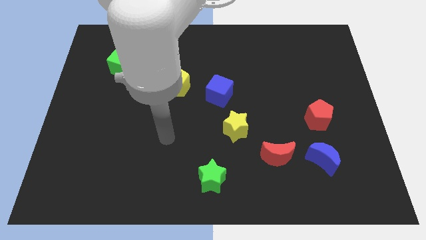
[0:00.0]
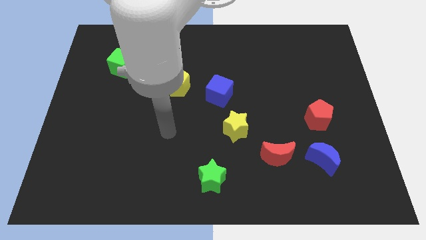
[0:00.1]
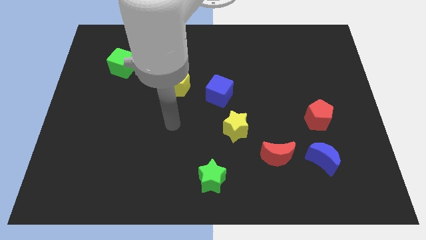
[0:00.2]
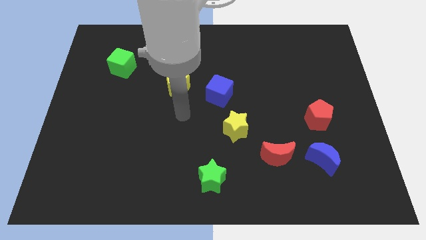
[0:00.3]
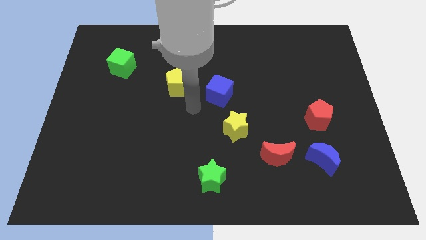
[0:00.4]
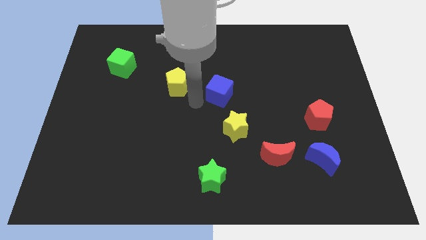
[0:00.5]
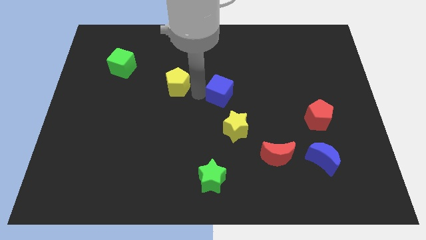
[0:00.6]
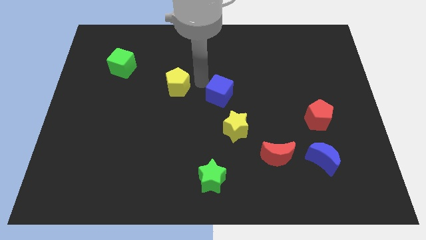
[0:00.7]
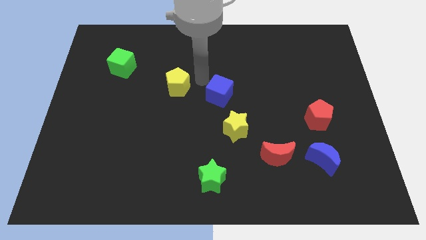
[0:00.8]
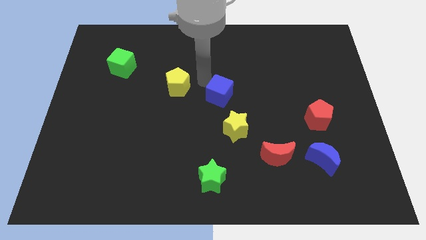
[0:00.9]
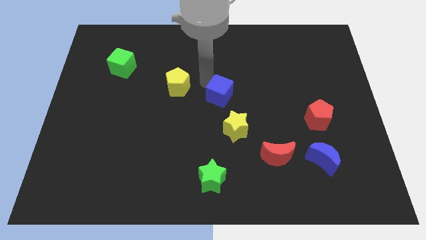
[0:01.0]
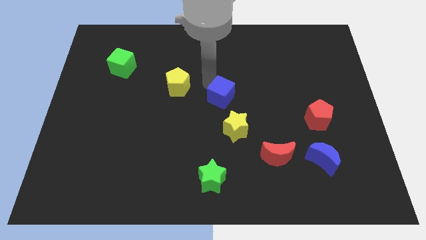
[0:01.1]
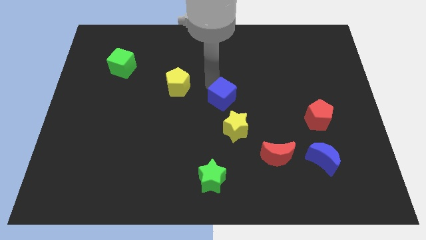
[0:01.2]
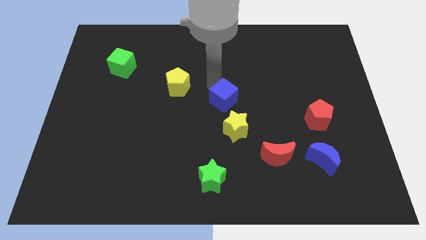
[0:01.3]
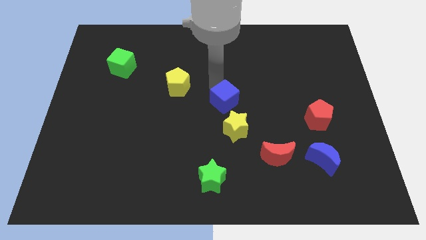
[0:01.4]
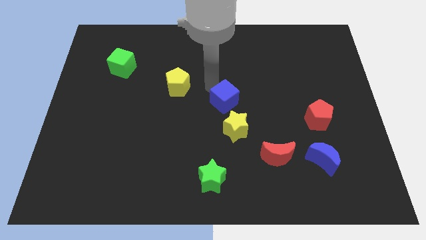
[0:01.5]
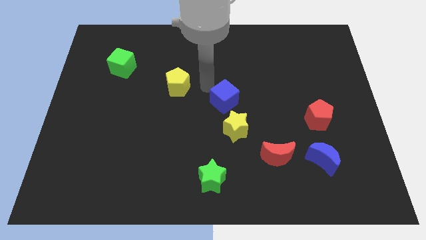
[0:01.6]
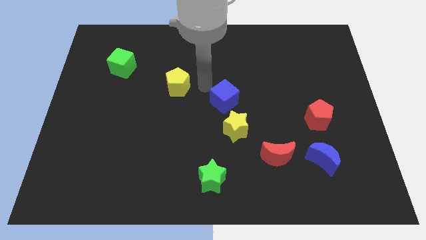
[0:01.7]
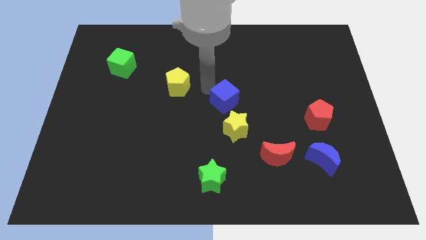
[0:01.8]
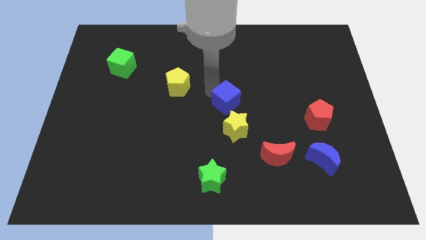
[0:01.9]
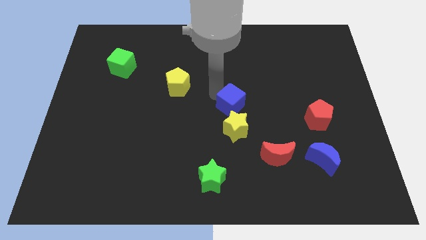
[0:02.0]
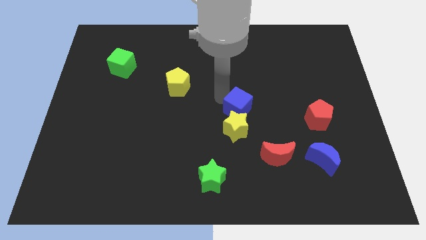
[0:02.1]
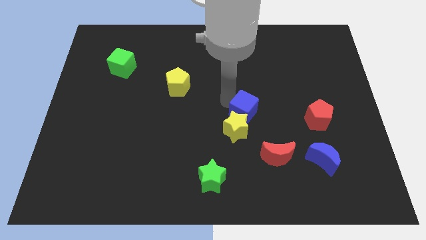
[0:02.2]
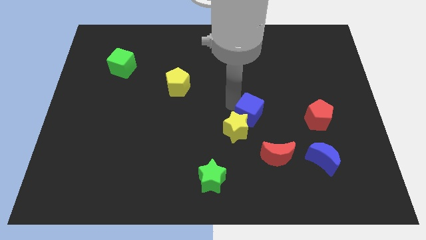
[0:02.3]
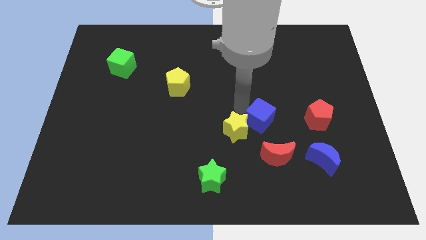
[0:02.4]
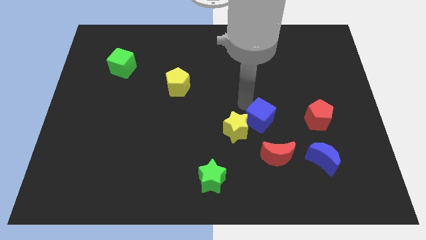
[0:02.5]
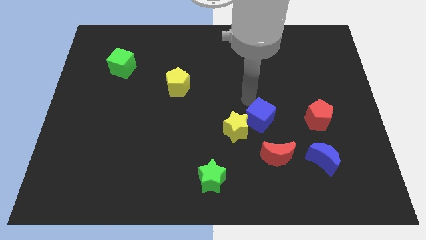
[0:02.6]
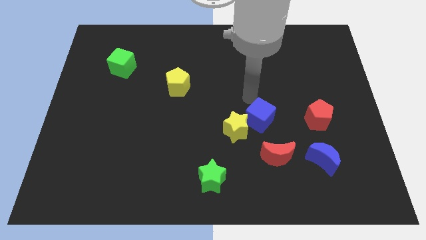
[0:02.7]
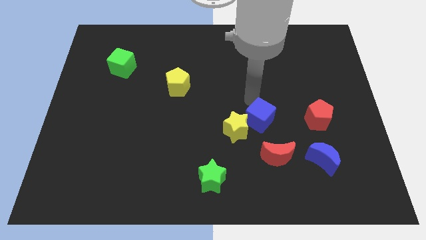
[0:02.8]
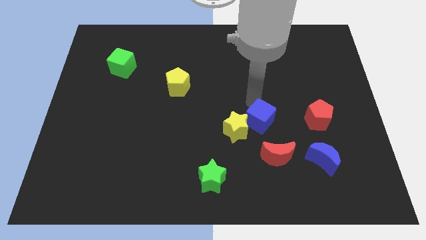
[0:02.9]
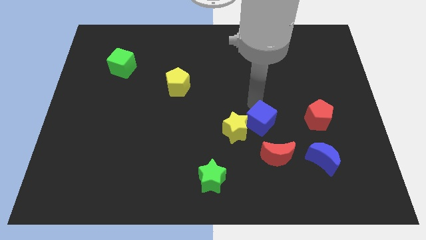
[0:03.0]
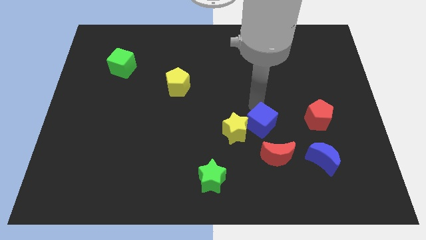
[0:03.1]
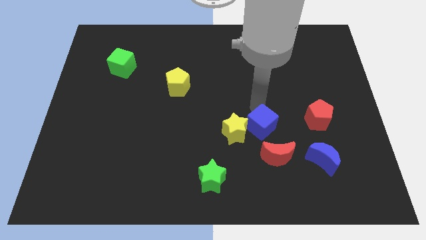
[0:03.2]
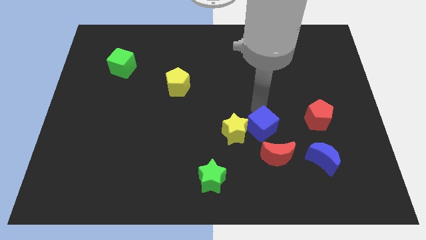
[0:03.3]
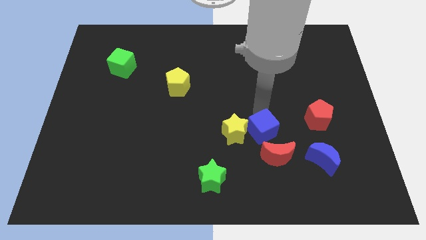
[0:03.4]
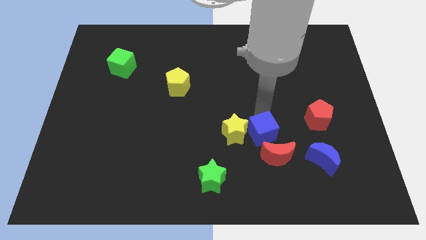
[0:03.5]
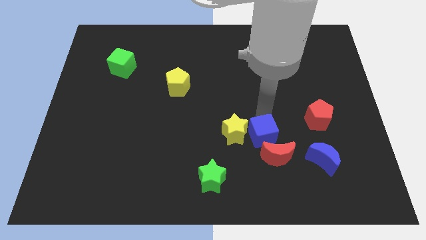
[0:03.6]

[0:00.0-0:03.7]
push the blue cube next to the red moon

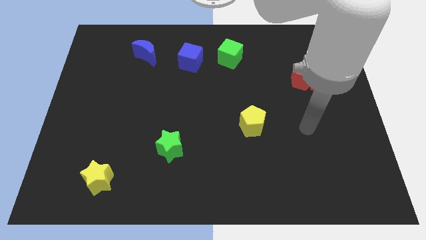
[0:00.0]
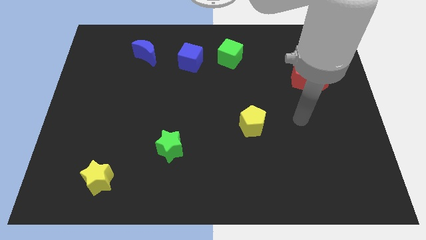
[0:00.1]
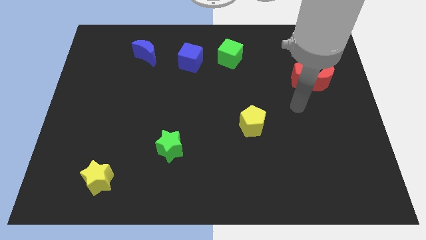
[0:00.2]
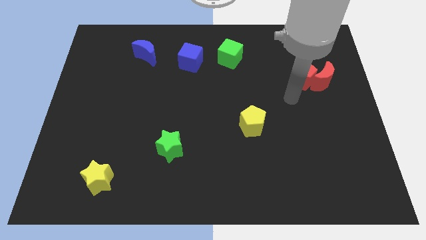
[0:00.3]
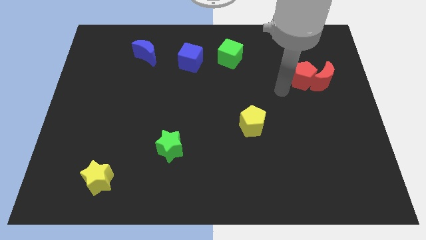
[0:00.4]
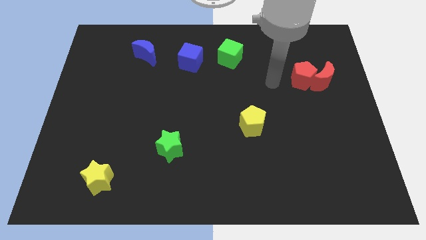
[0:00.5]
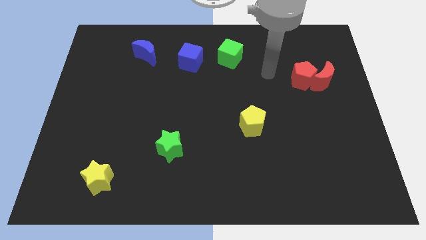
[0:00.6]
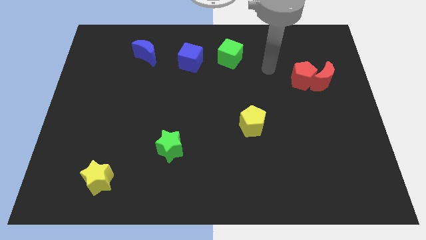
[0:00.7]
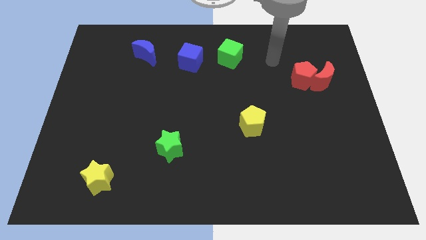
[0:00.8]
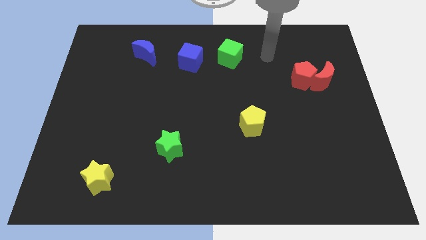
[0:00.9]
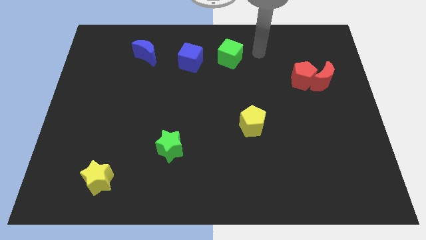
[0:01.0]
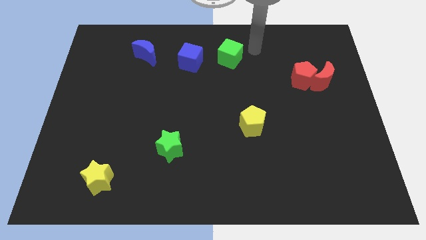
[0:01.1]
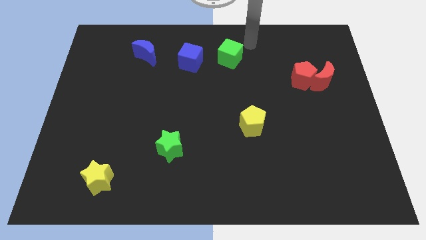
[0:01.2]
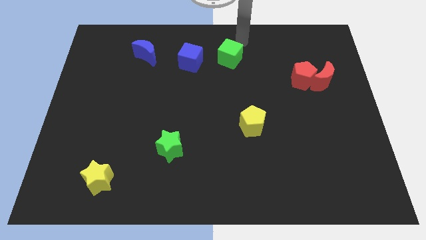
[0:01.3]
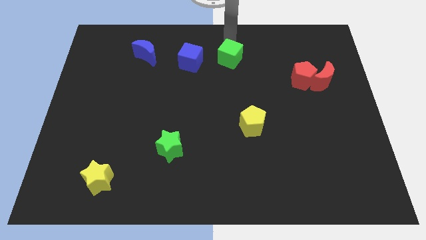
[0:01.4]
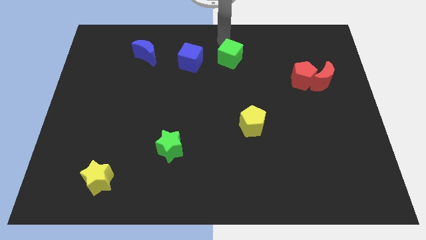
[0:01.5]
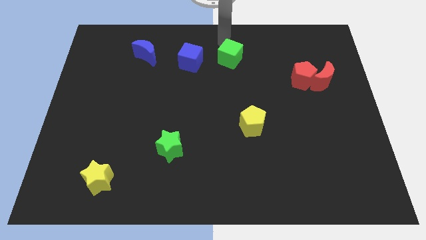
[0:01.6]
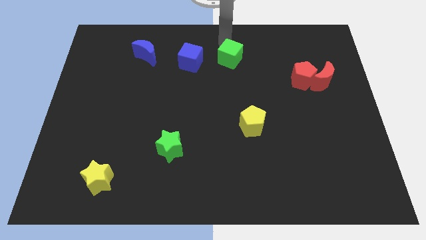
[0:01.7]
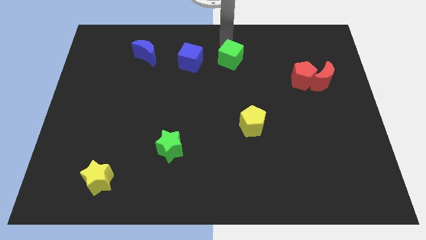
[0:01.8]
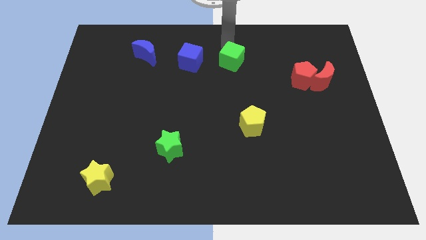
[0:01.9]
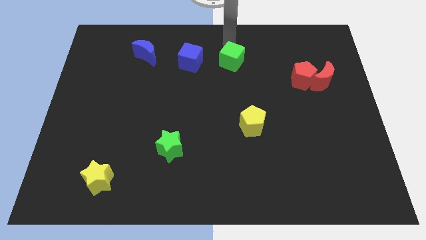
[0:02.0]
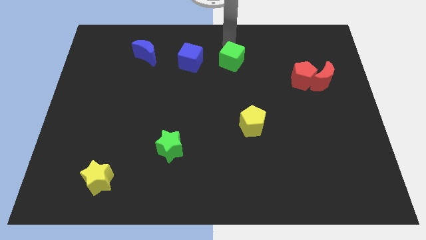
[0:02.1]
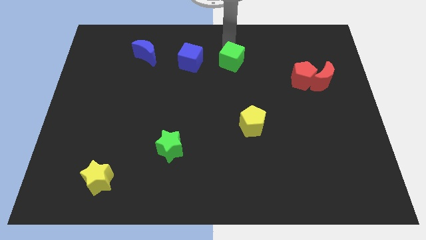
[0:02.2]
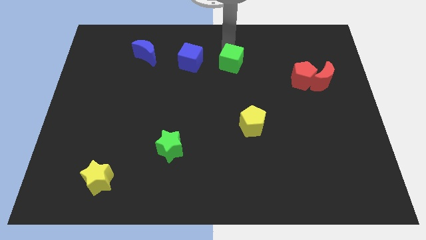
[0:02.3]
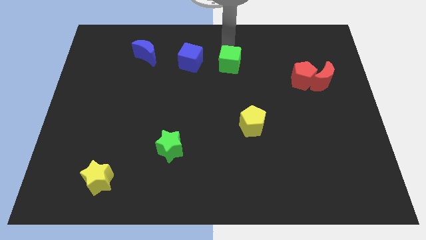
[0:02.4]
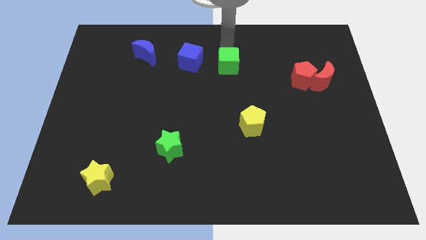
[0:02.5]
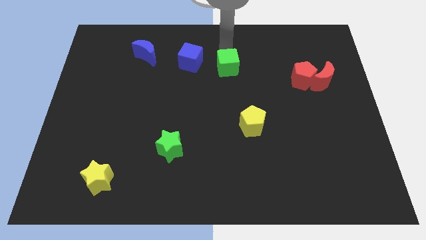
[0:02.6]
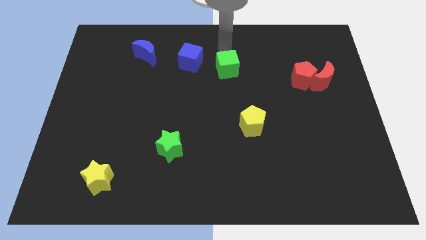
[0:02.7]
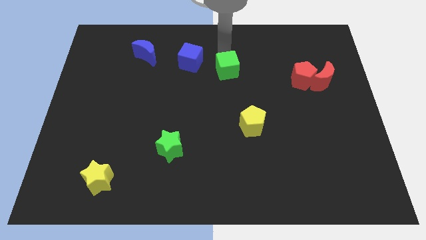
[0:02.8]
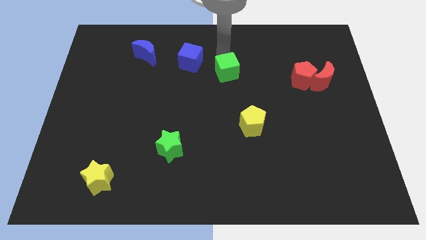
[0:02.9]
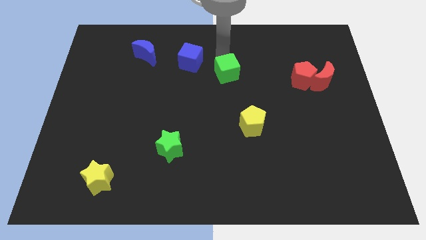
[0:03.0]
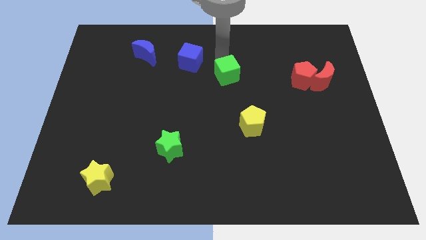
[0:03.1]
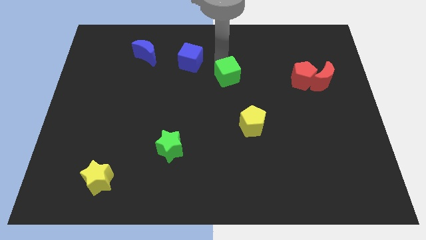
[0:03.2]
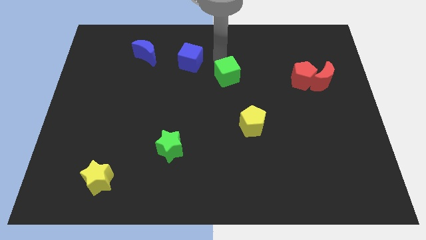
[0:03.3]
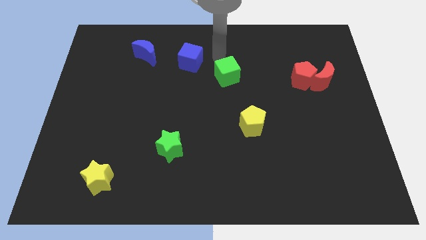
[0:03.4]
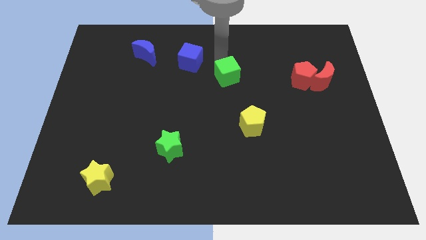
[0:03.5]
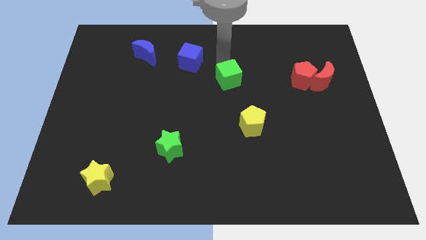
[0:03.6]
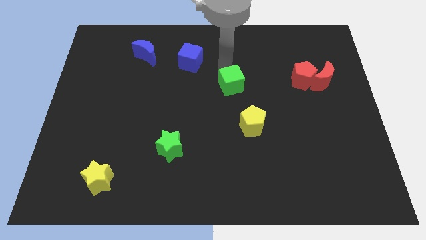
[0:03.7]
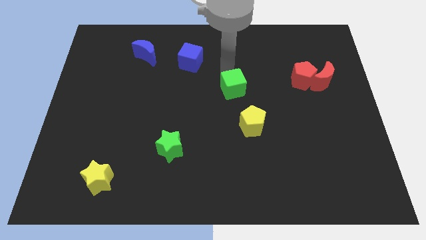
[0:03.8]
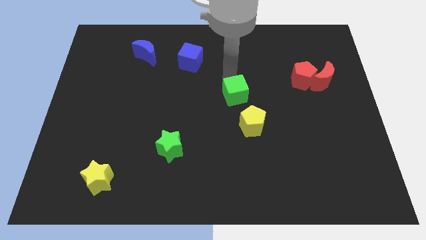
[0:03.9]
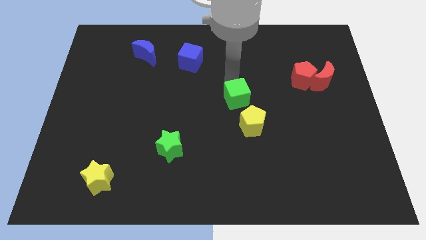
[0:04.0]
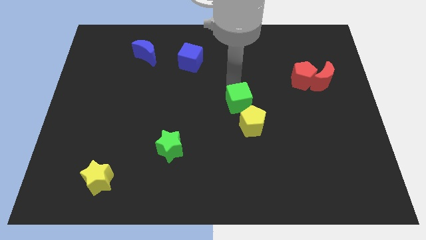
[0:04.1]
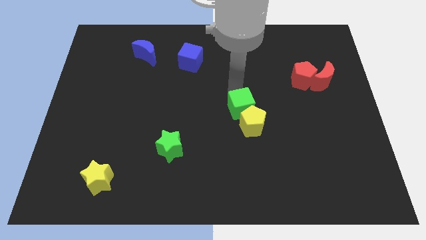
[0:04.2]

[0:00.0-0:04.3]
put the green cube to the yellow pentagon
